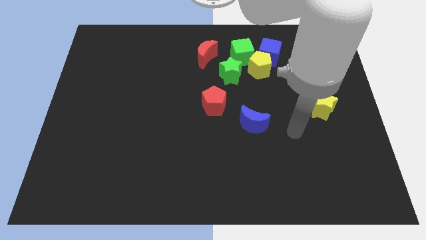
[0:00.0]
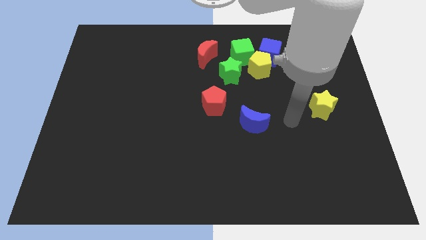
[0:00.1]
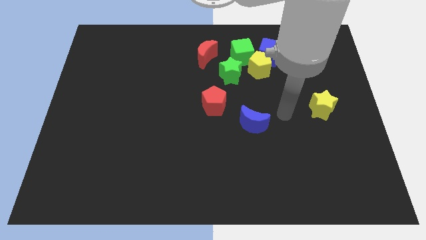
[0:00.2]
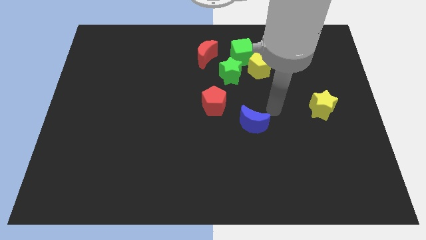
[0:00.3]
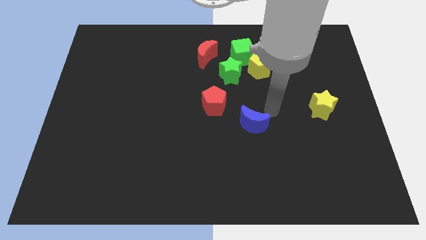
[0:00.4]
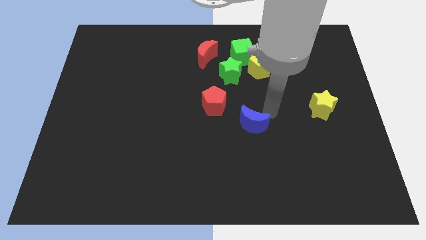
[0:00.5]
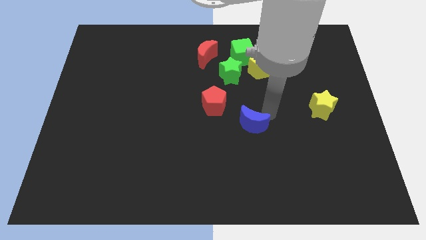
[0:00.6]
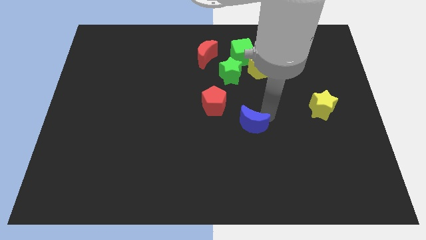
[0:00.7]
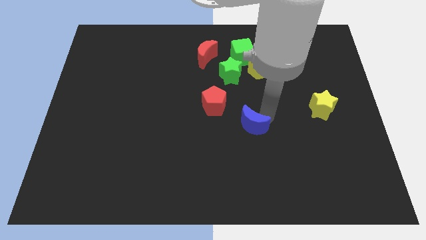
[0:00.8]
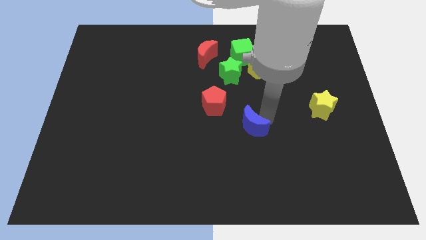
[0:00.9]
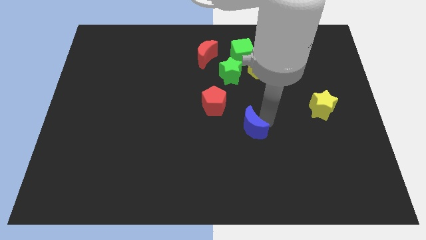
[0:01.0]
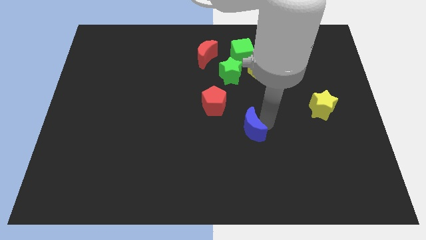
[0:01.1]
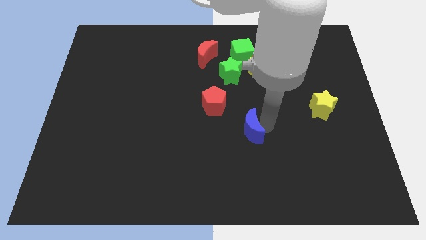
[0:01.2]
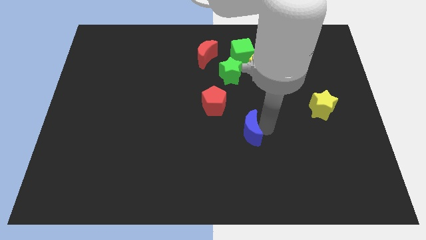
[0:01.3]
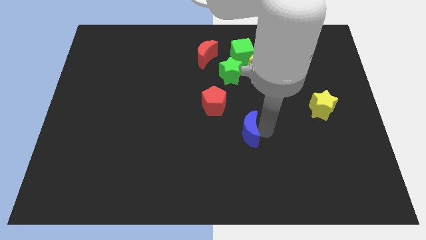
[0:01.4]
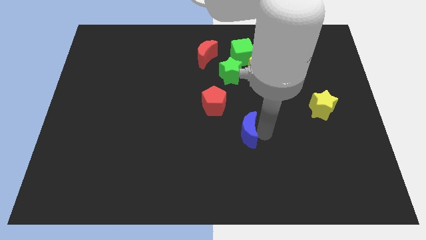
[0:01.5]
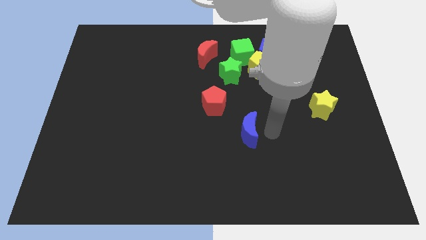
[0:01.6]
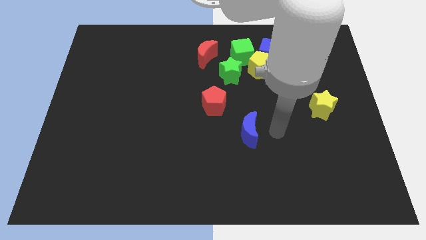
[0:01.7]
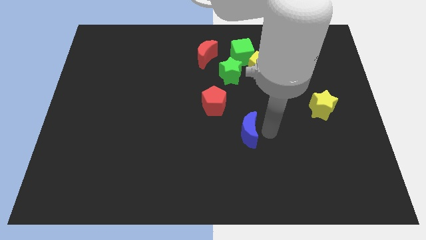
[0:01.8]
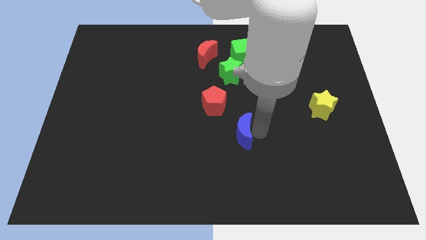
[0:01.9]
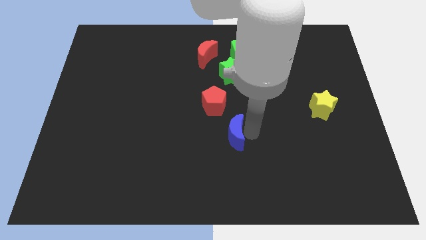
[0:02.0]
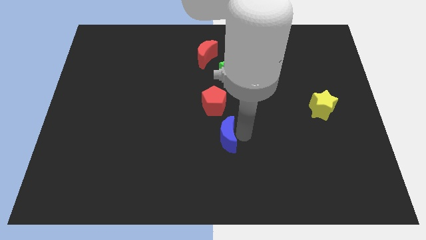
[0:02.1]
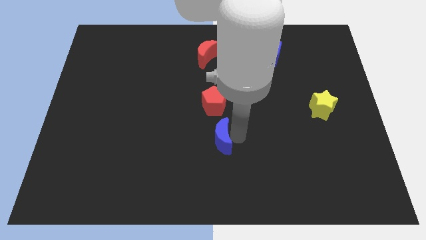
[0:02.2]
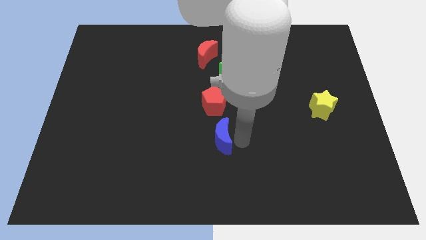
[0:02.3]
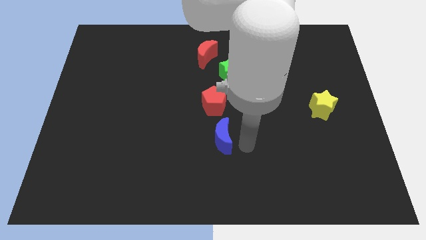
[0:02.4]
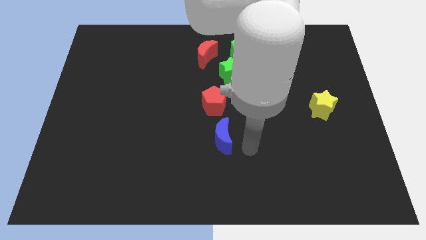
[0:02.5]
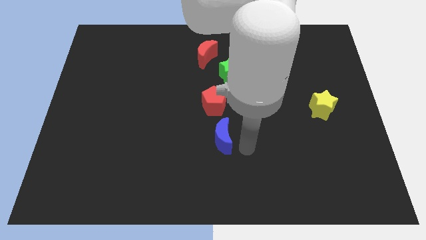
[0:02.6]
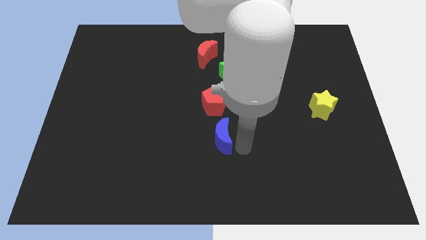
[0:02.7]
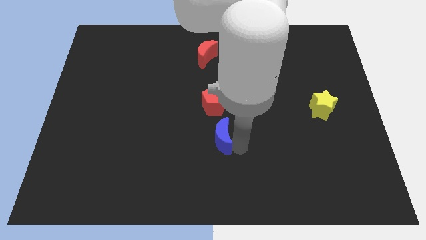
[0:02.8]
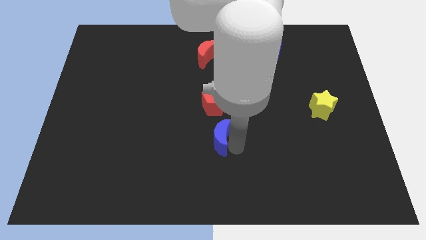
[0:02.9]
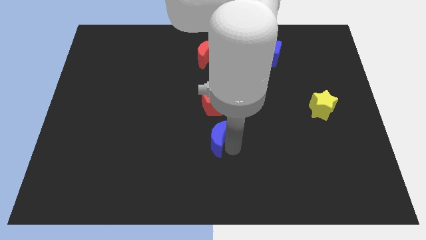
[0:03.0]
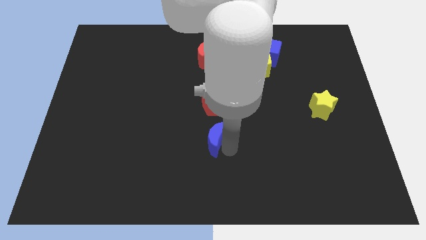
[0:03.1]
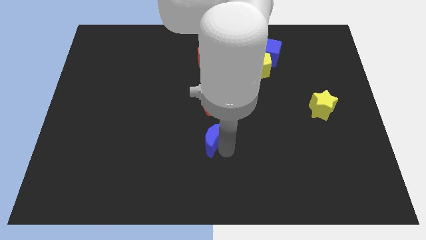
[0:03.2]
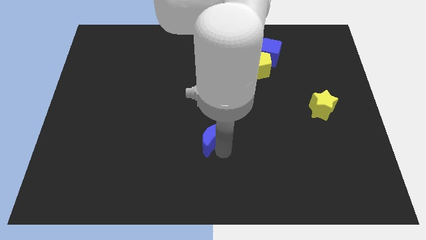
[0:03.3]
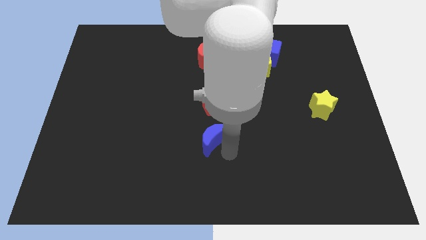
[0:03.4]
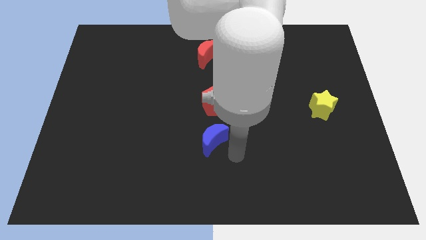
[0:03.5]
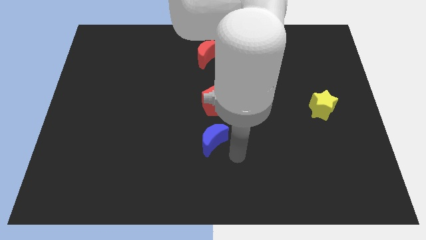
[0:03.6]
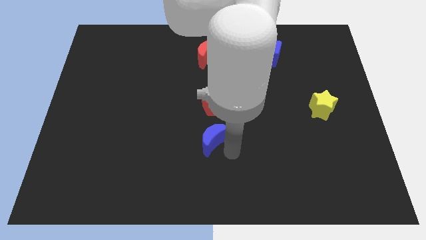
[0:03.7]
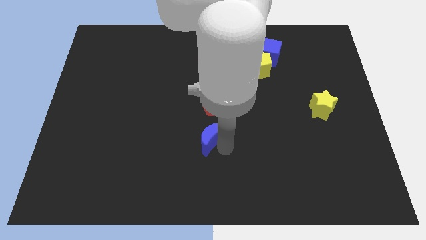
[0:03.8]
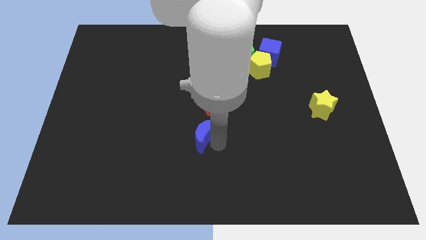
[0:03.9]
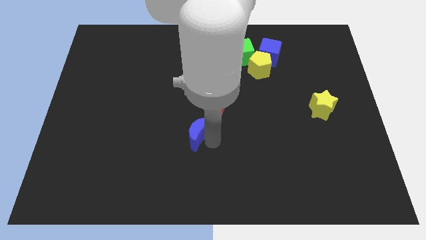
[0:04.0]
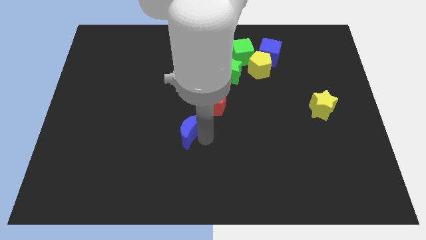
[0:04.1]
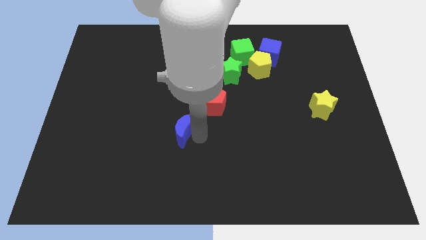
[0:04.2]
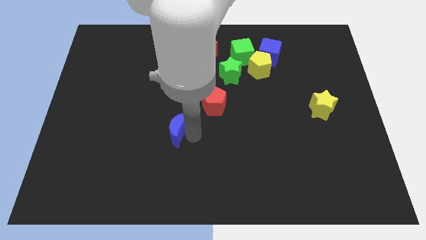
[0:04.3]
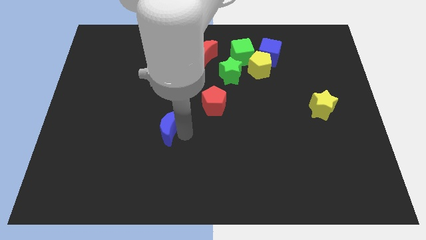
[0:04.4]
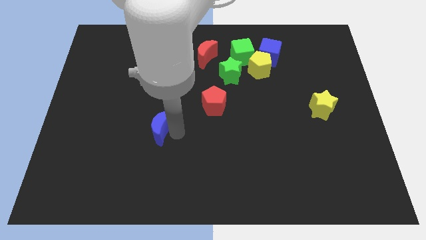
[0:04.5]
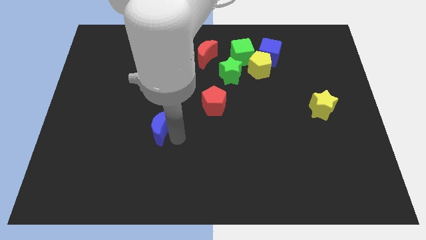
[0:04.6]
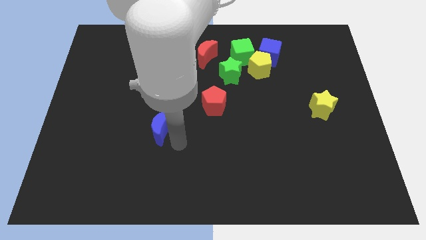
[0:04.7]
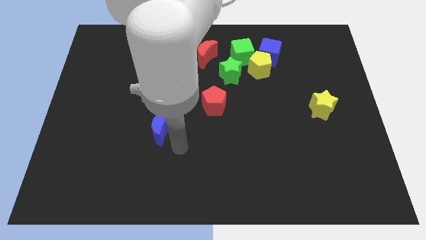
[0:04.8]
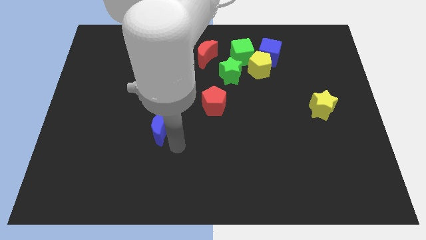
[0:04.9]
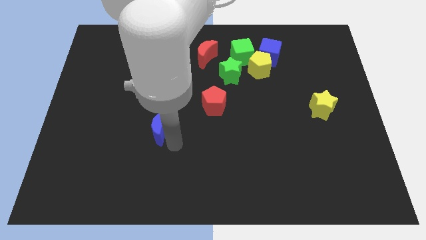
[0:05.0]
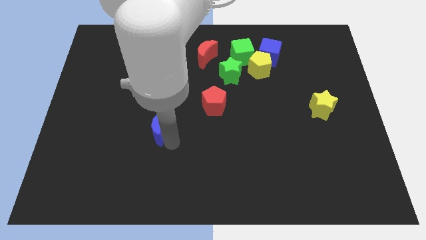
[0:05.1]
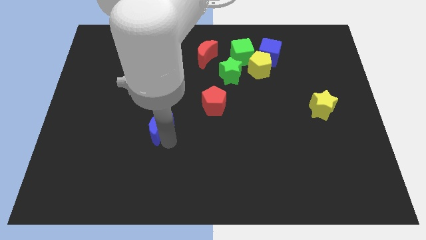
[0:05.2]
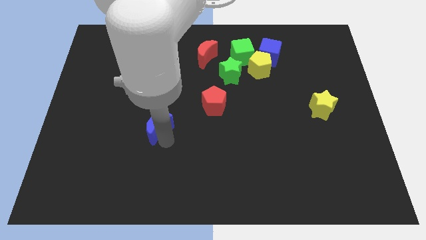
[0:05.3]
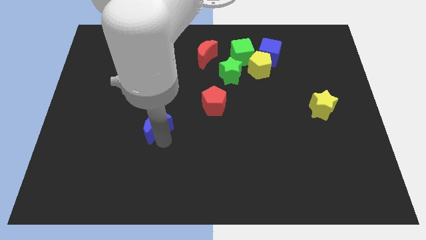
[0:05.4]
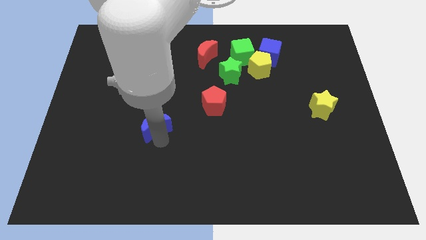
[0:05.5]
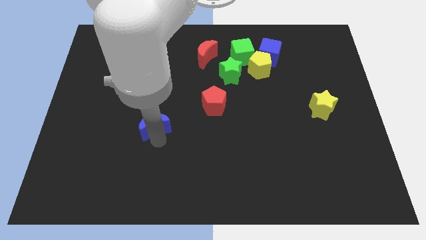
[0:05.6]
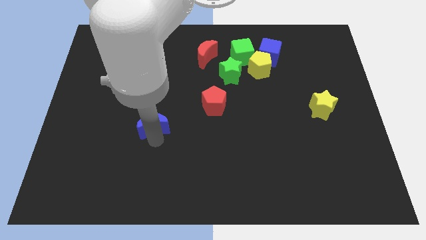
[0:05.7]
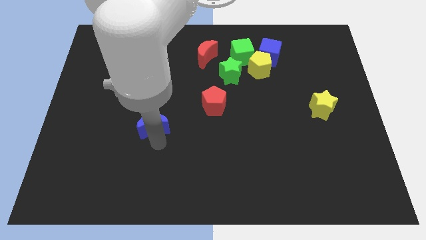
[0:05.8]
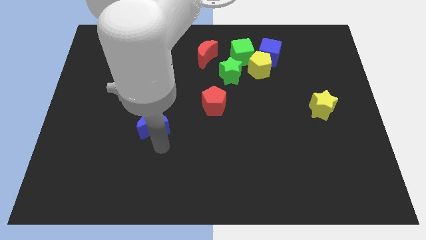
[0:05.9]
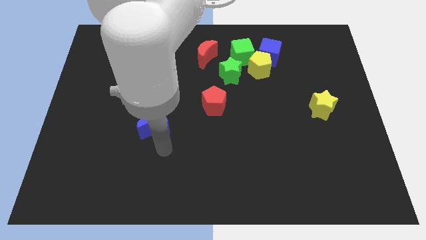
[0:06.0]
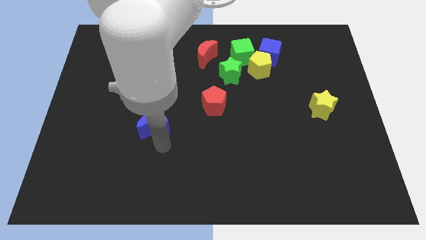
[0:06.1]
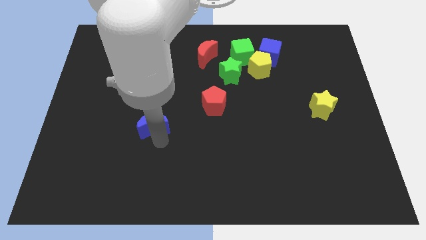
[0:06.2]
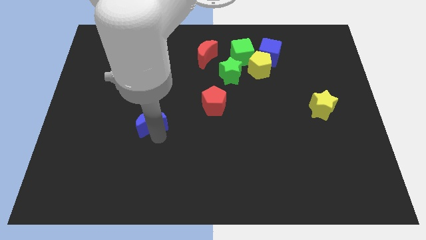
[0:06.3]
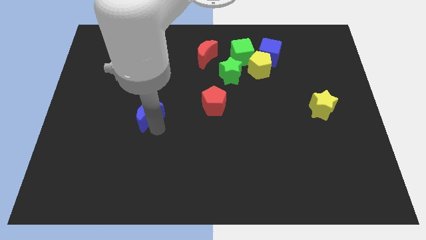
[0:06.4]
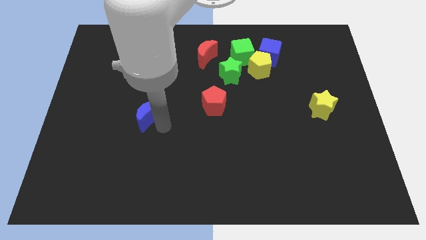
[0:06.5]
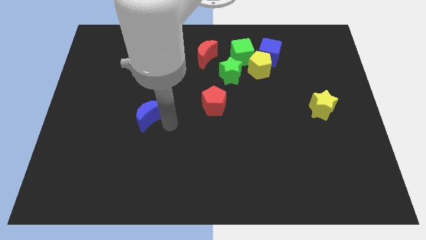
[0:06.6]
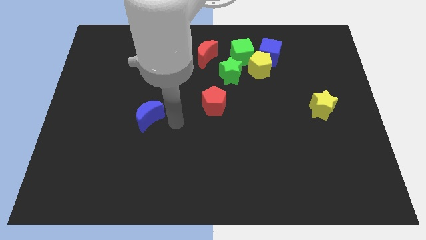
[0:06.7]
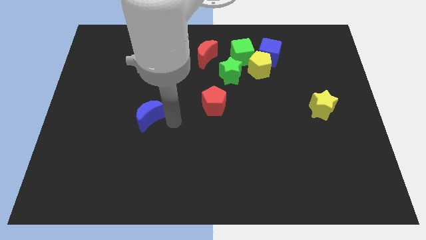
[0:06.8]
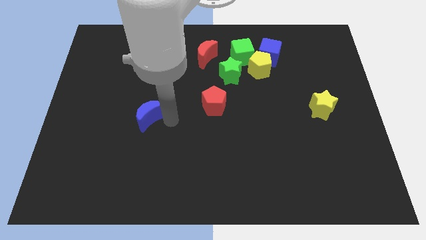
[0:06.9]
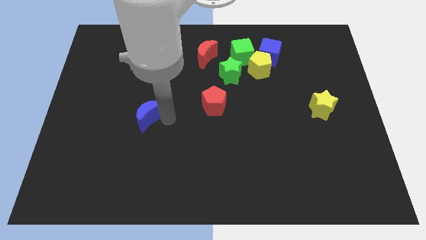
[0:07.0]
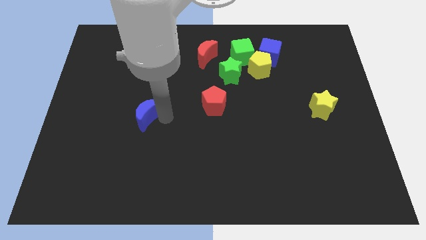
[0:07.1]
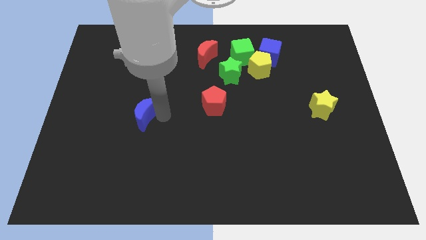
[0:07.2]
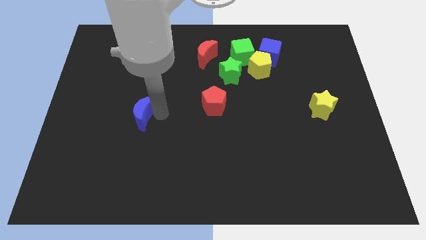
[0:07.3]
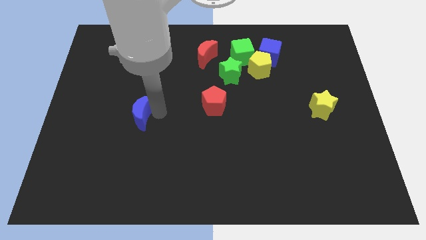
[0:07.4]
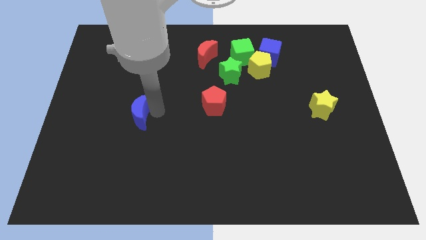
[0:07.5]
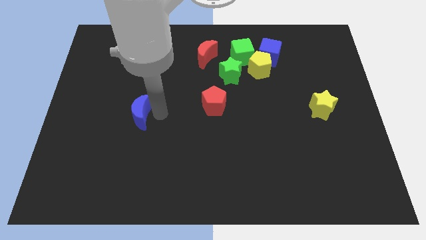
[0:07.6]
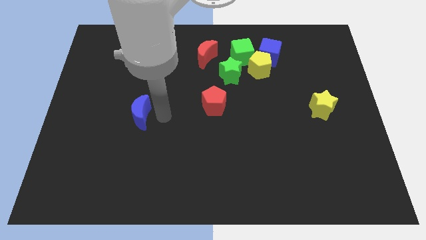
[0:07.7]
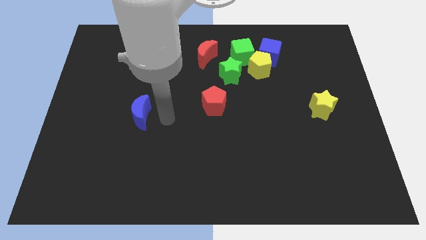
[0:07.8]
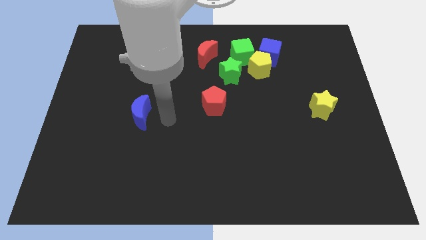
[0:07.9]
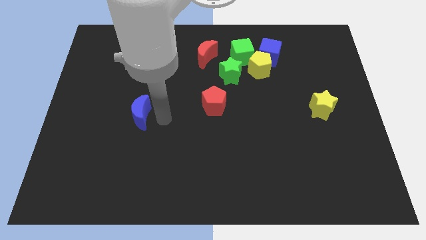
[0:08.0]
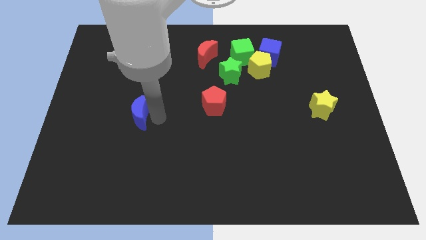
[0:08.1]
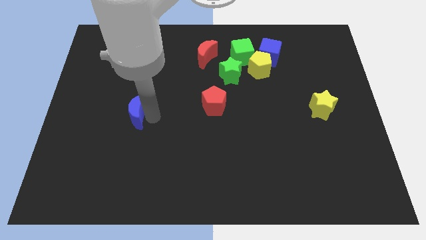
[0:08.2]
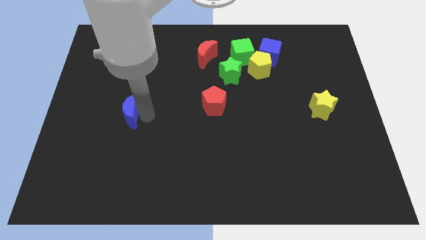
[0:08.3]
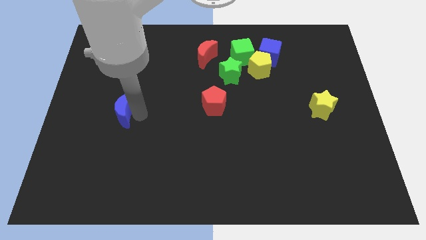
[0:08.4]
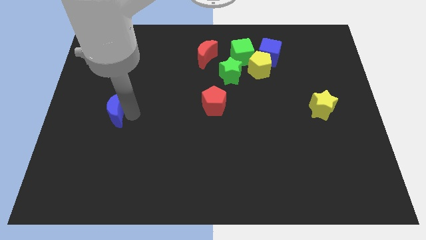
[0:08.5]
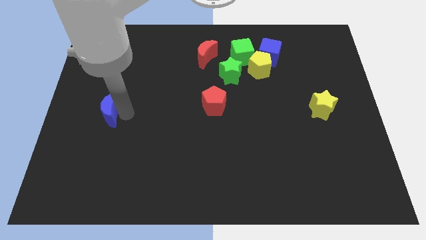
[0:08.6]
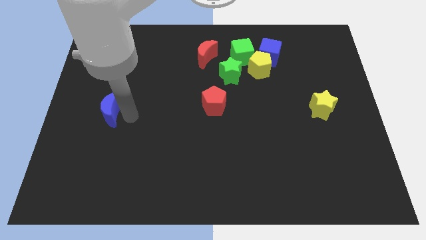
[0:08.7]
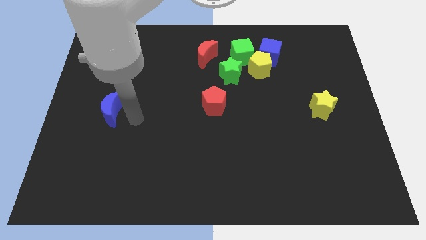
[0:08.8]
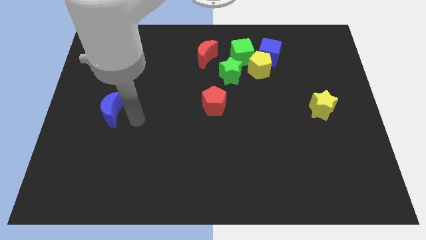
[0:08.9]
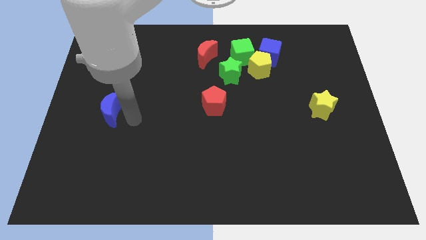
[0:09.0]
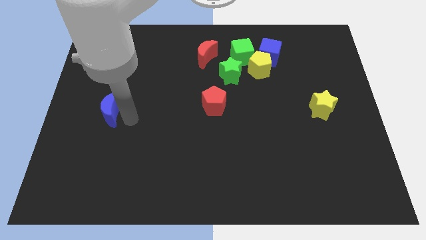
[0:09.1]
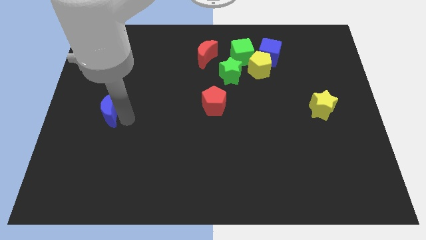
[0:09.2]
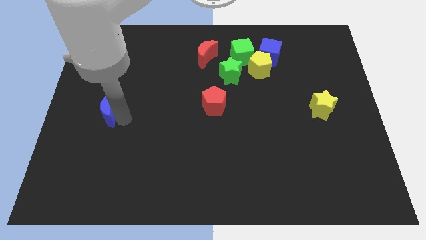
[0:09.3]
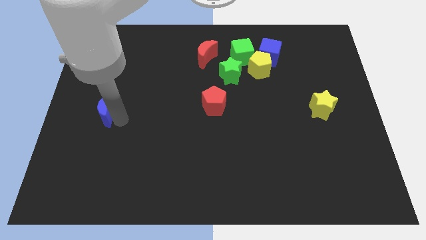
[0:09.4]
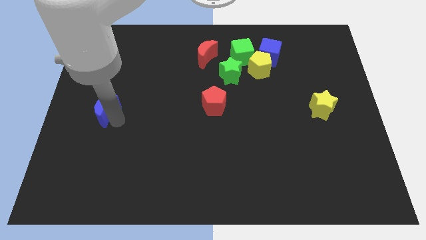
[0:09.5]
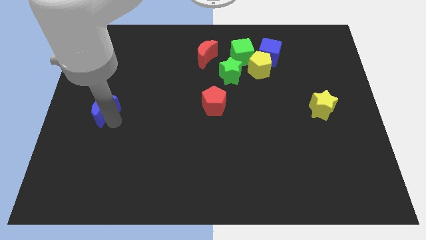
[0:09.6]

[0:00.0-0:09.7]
put the blue moon to the center left
